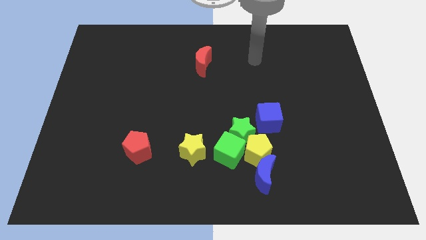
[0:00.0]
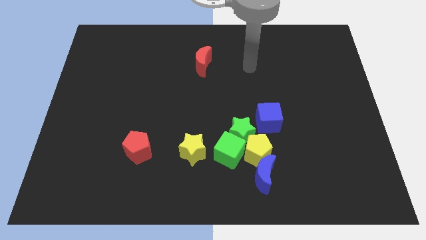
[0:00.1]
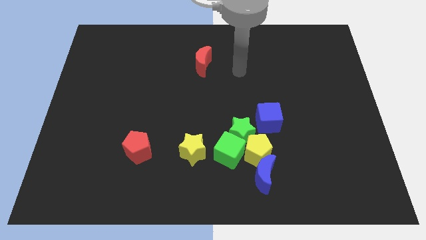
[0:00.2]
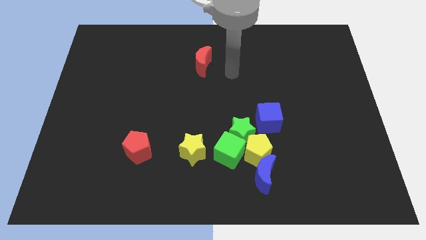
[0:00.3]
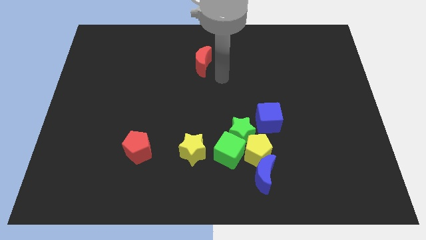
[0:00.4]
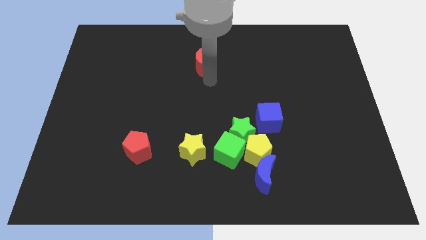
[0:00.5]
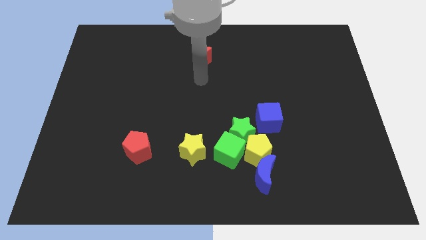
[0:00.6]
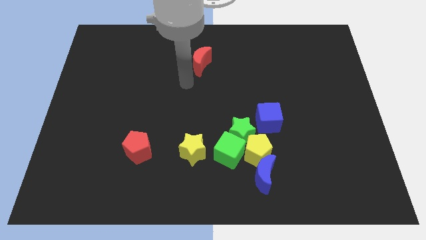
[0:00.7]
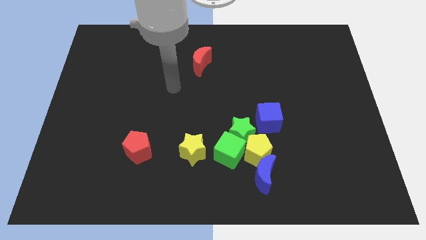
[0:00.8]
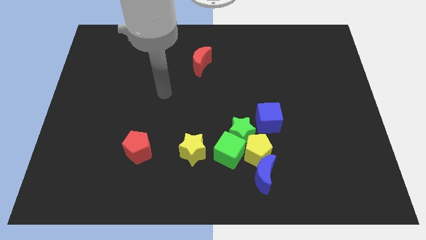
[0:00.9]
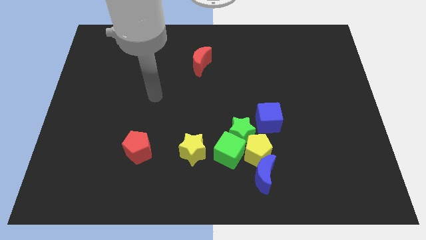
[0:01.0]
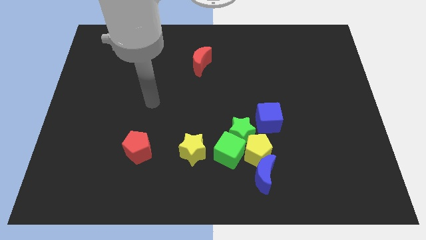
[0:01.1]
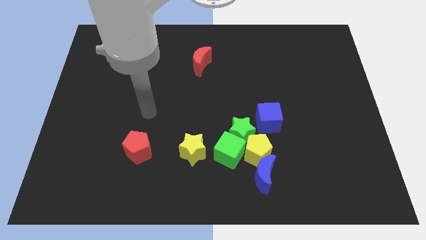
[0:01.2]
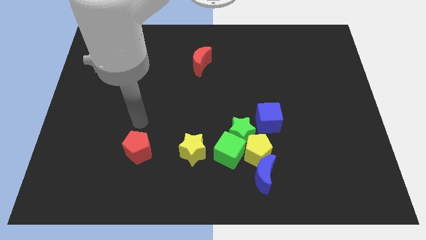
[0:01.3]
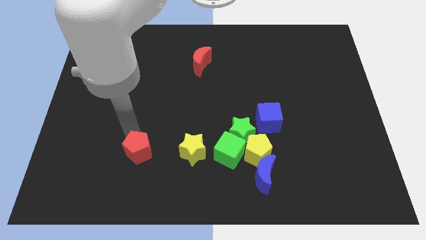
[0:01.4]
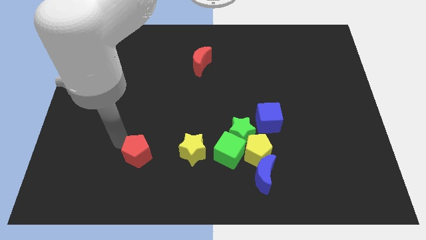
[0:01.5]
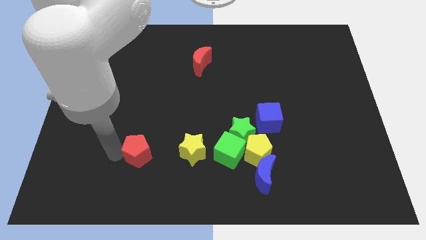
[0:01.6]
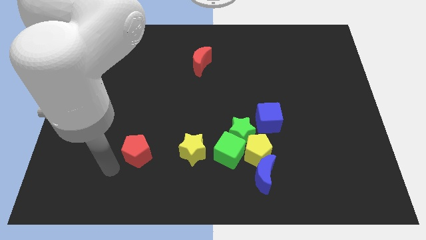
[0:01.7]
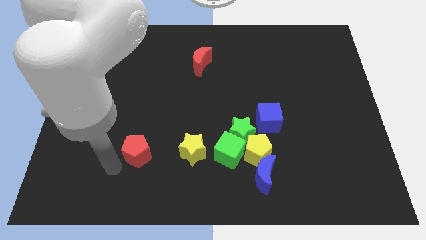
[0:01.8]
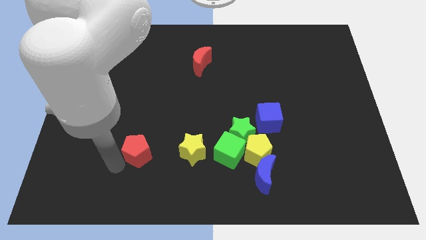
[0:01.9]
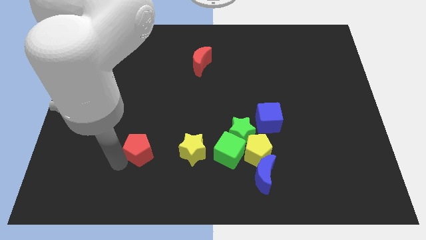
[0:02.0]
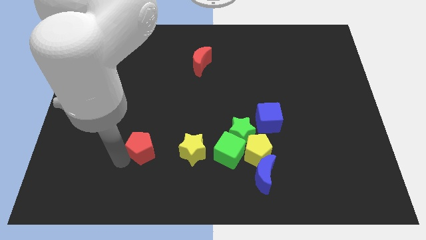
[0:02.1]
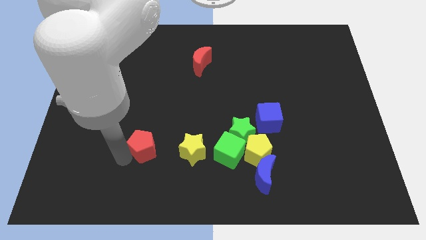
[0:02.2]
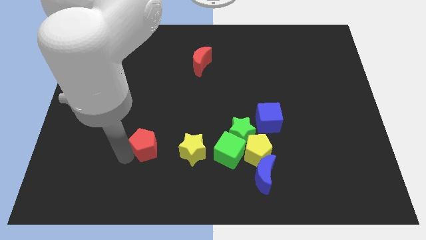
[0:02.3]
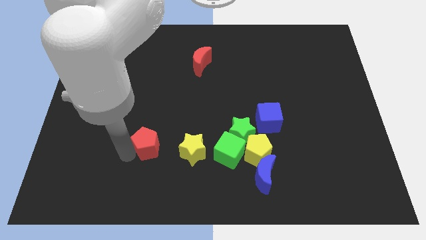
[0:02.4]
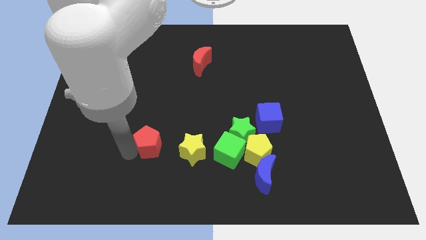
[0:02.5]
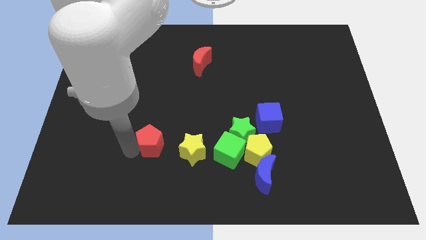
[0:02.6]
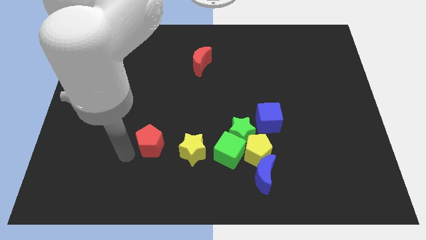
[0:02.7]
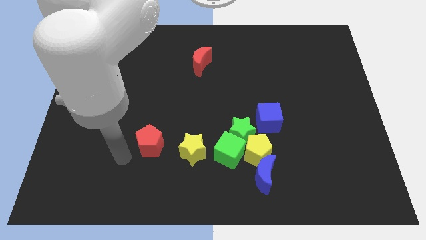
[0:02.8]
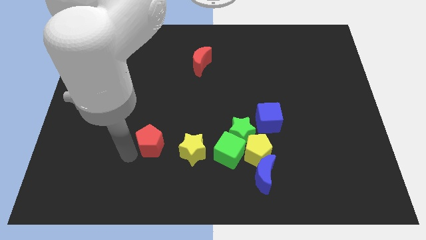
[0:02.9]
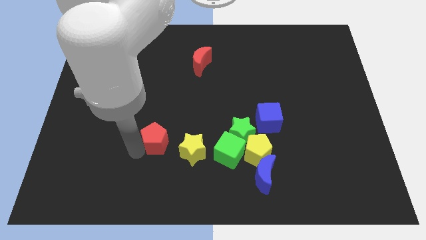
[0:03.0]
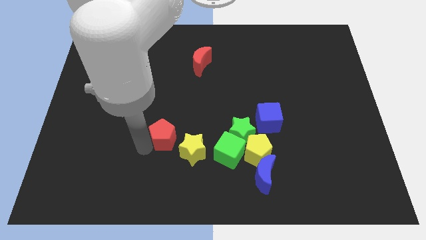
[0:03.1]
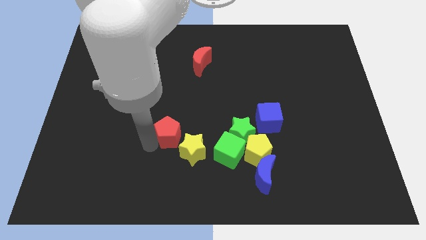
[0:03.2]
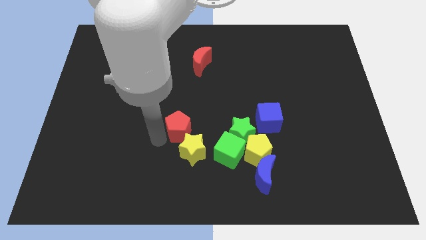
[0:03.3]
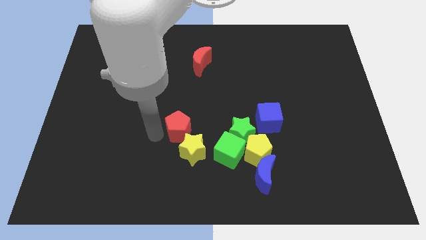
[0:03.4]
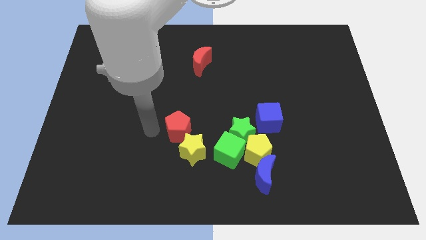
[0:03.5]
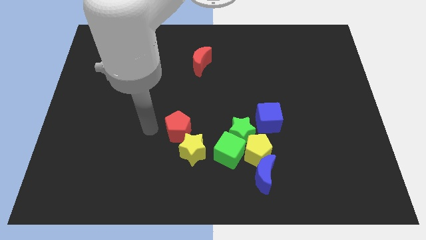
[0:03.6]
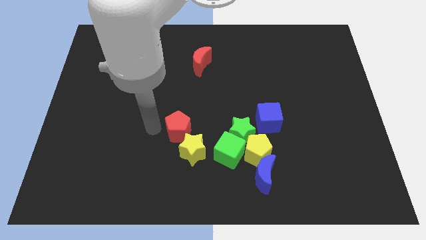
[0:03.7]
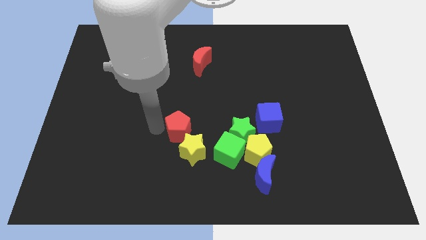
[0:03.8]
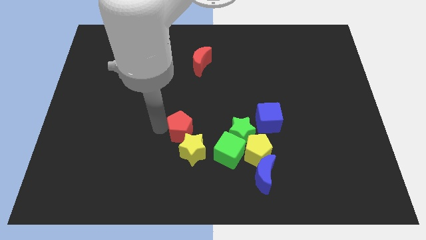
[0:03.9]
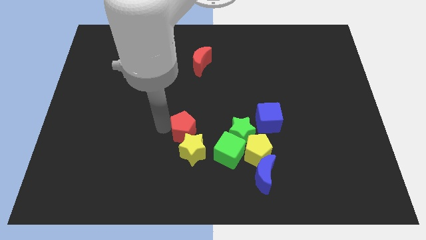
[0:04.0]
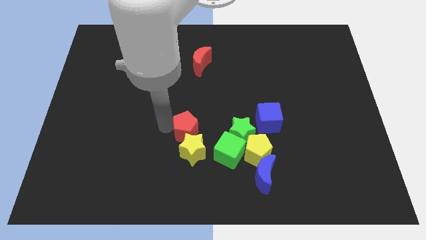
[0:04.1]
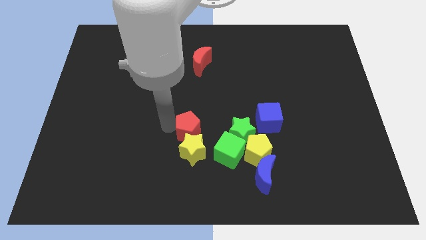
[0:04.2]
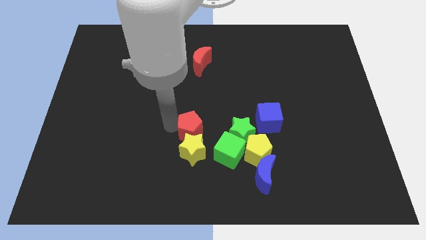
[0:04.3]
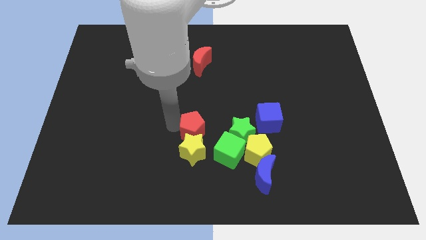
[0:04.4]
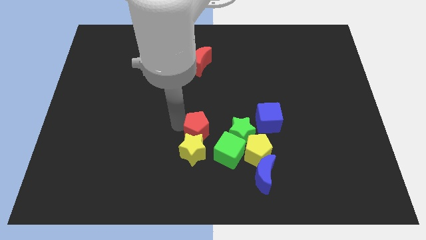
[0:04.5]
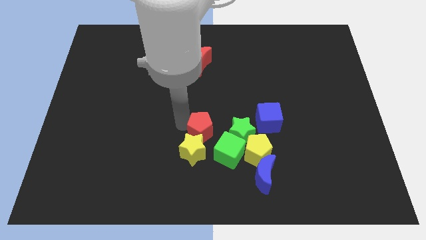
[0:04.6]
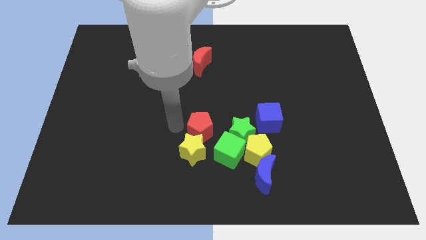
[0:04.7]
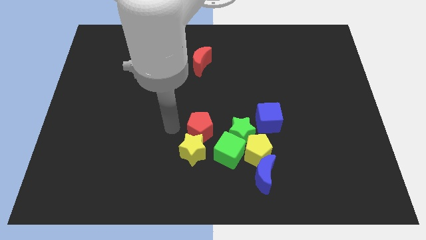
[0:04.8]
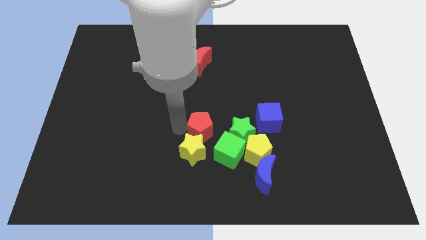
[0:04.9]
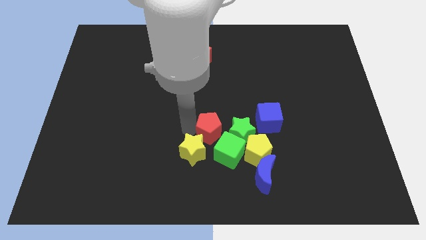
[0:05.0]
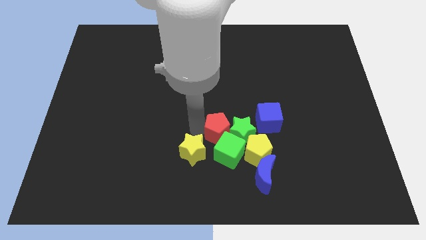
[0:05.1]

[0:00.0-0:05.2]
move the red pentagon close to the green star

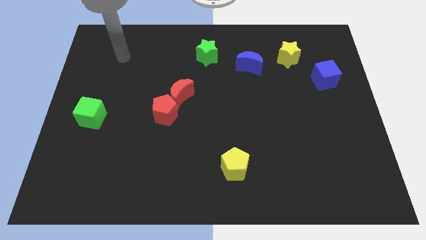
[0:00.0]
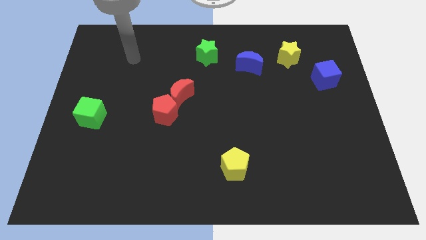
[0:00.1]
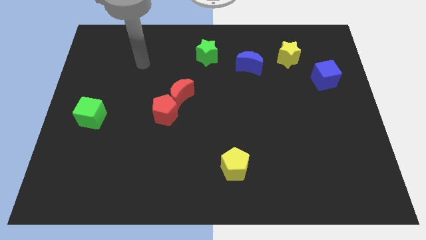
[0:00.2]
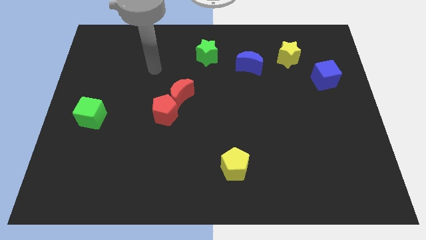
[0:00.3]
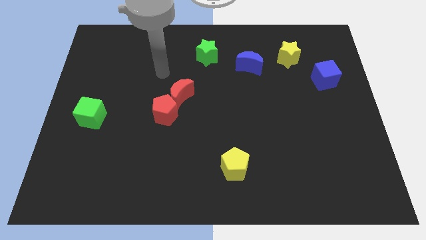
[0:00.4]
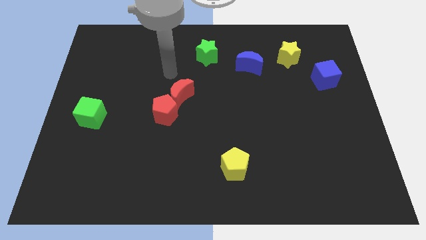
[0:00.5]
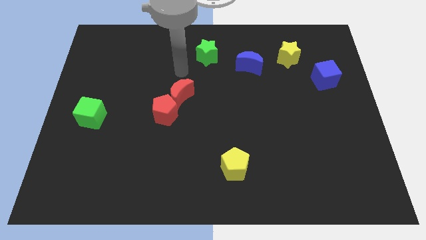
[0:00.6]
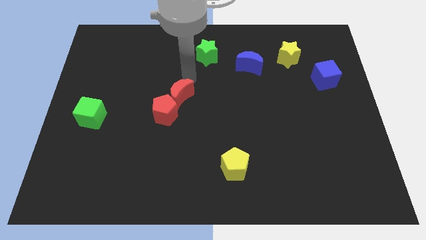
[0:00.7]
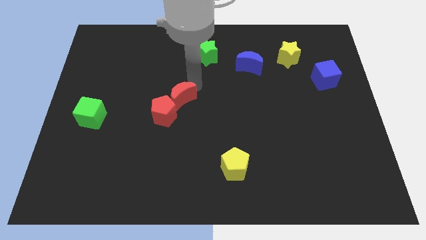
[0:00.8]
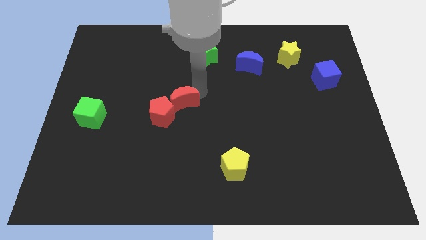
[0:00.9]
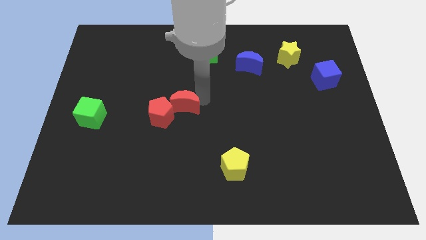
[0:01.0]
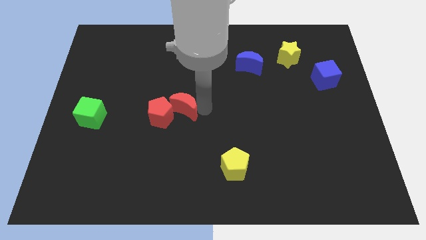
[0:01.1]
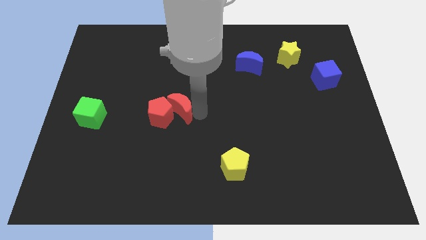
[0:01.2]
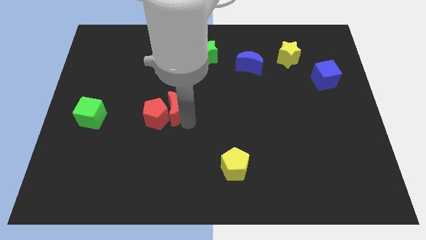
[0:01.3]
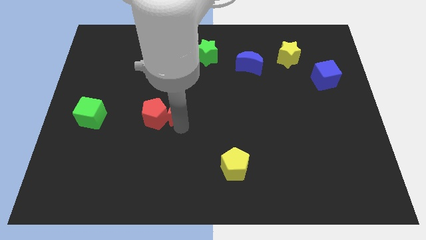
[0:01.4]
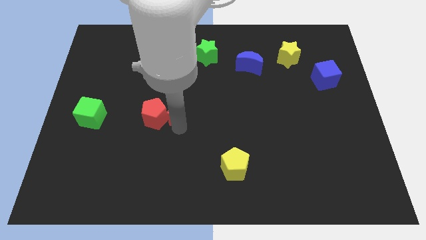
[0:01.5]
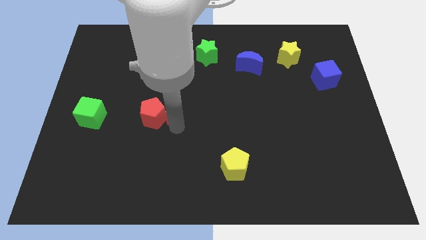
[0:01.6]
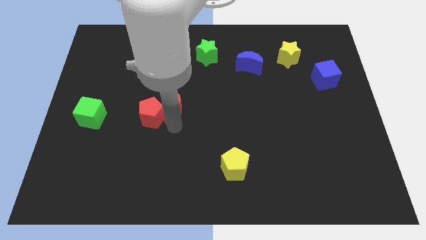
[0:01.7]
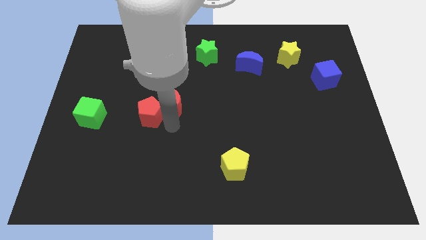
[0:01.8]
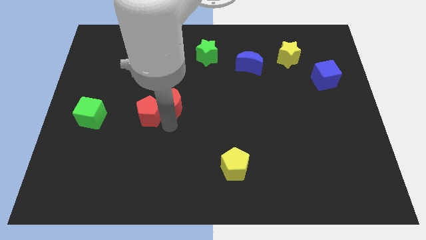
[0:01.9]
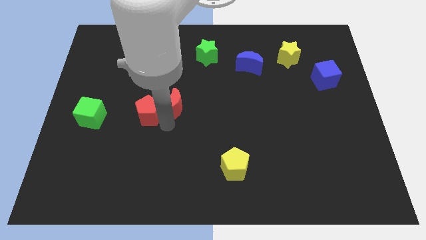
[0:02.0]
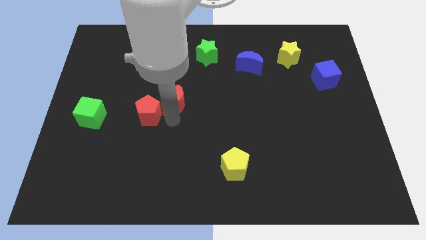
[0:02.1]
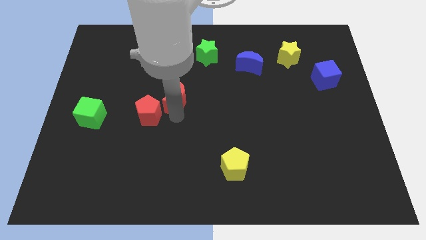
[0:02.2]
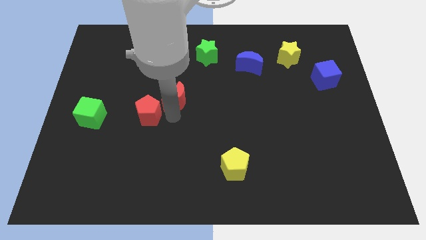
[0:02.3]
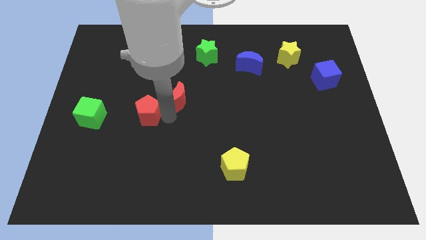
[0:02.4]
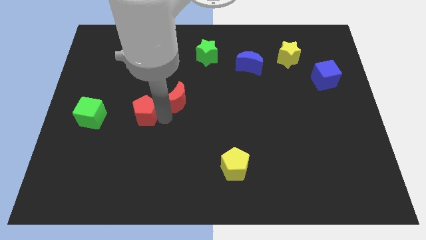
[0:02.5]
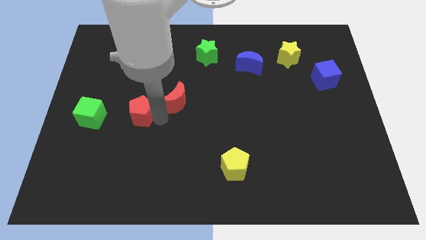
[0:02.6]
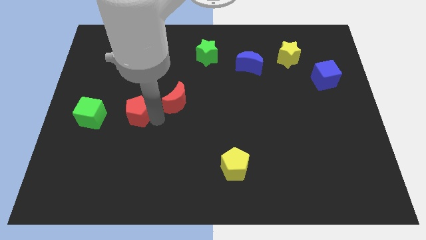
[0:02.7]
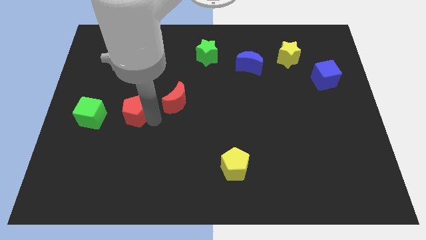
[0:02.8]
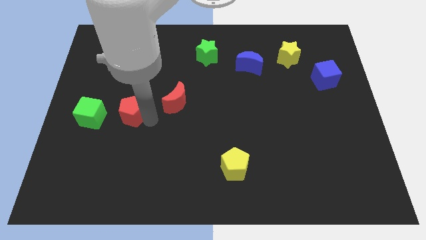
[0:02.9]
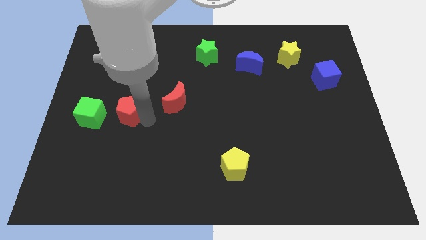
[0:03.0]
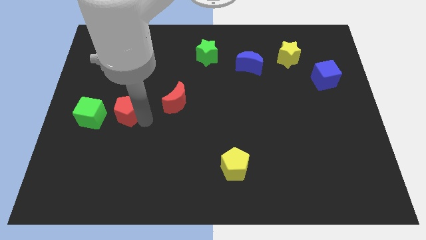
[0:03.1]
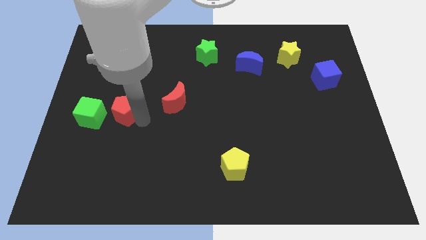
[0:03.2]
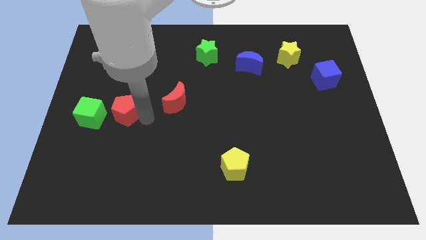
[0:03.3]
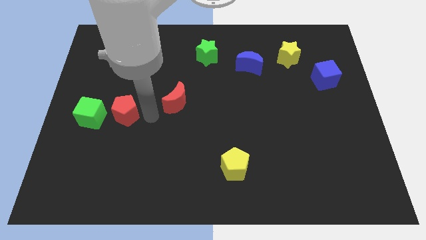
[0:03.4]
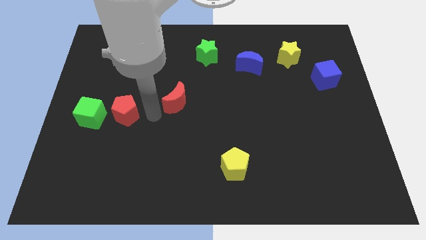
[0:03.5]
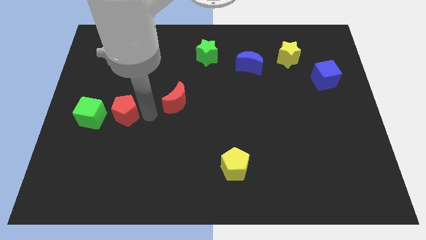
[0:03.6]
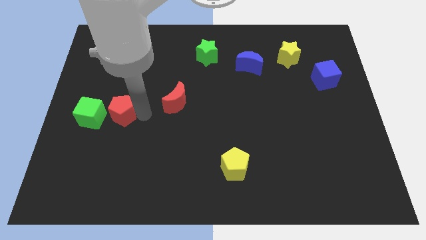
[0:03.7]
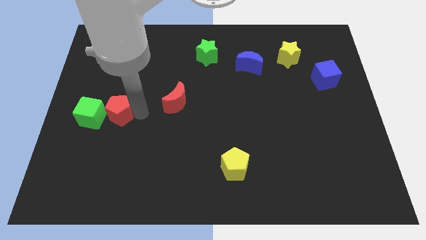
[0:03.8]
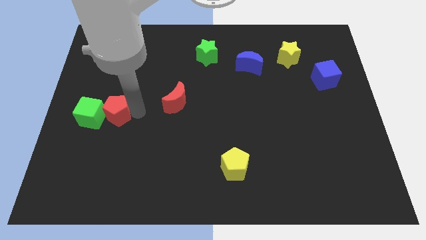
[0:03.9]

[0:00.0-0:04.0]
push the red pentagon towards the green cube
